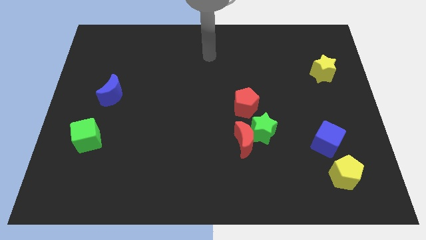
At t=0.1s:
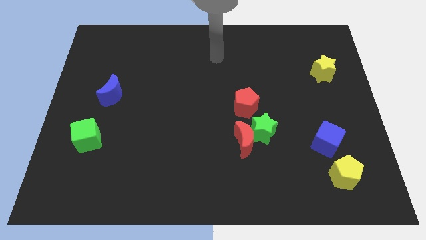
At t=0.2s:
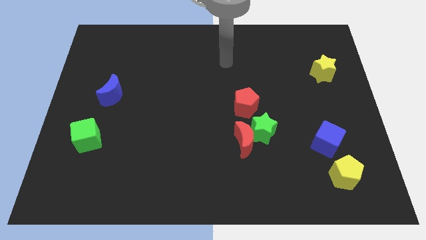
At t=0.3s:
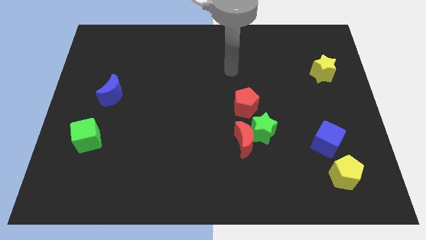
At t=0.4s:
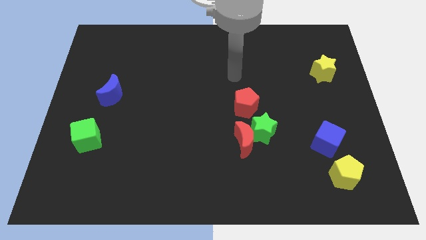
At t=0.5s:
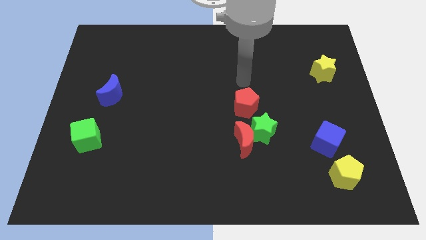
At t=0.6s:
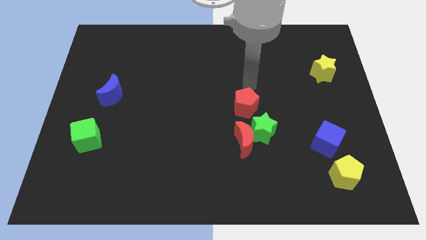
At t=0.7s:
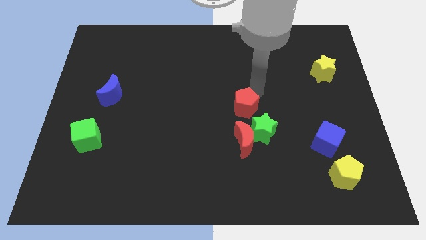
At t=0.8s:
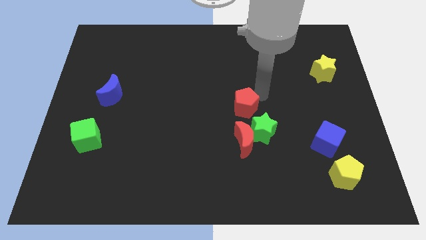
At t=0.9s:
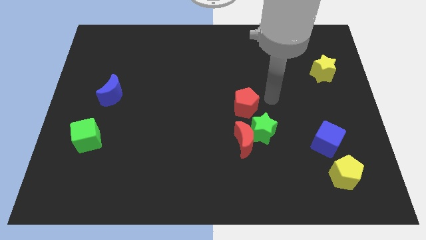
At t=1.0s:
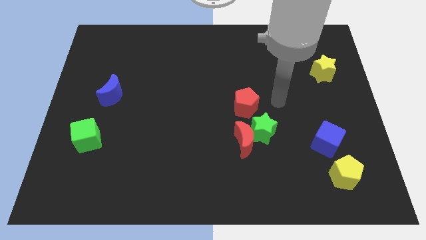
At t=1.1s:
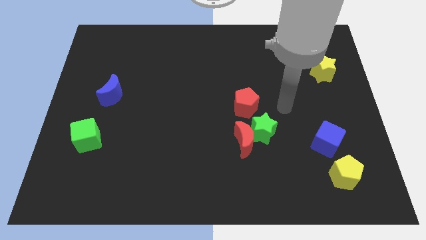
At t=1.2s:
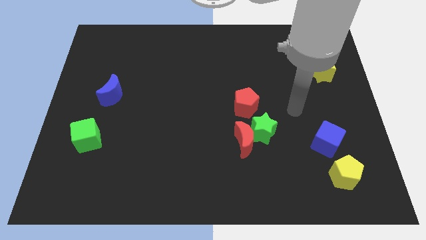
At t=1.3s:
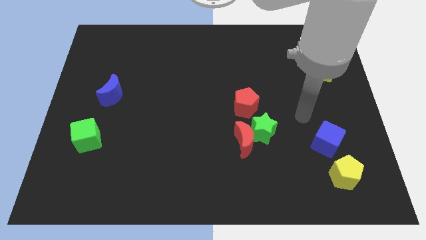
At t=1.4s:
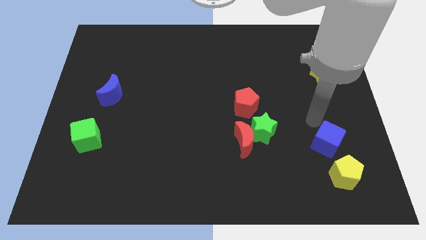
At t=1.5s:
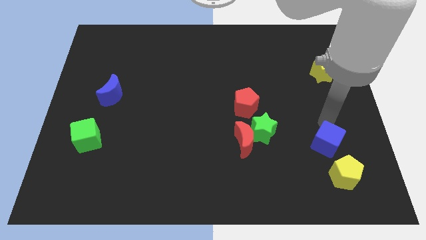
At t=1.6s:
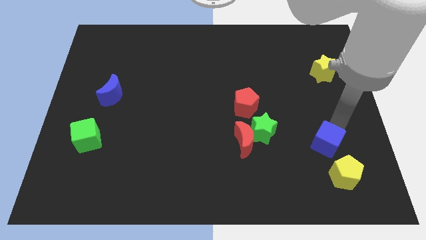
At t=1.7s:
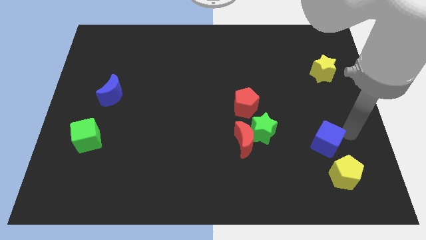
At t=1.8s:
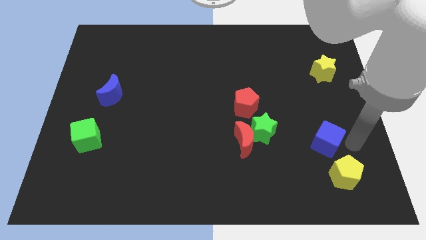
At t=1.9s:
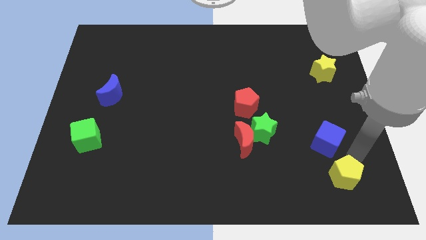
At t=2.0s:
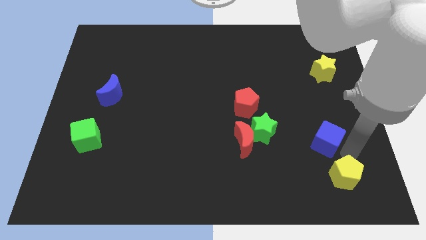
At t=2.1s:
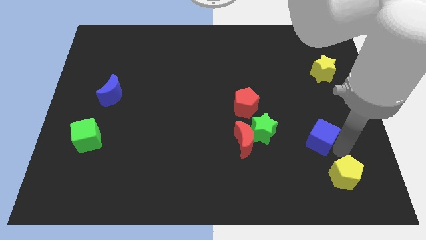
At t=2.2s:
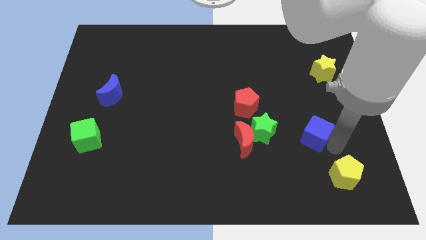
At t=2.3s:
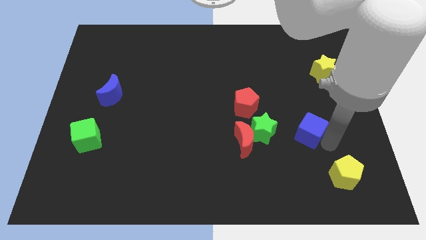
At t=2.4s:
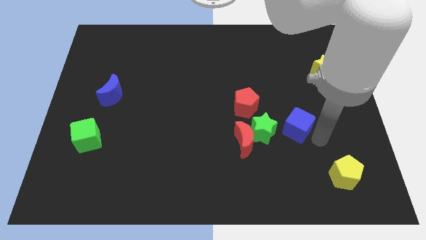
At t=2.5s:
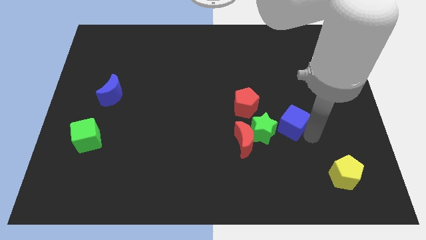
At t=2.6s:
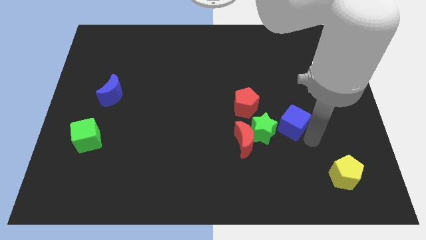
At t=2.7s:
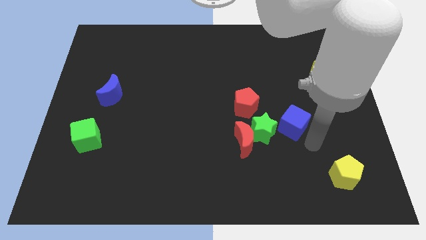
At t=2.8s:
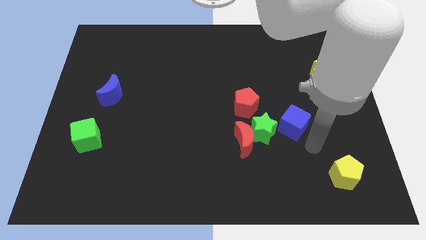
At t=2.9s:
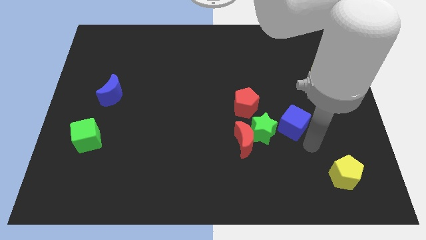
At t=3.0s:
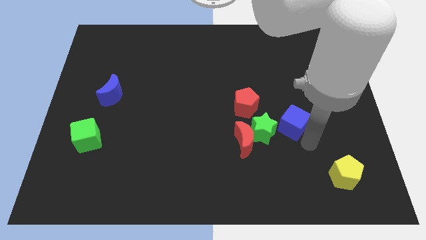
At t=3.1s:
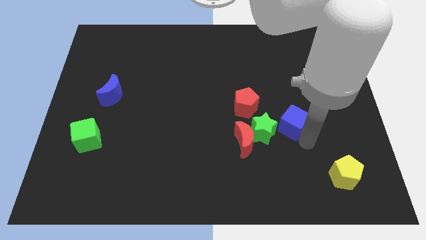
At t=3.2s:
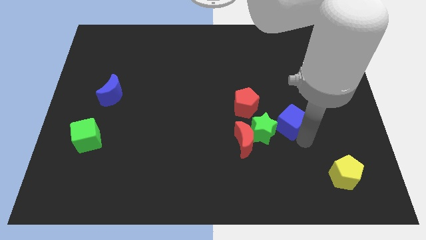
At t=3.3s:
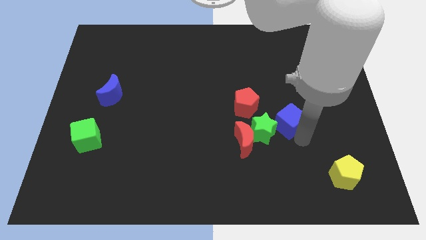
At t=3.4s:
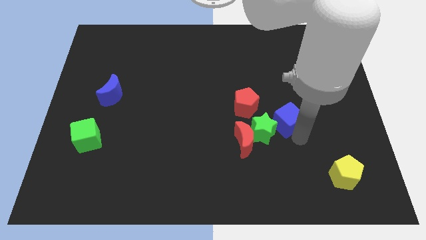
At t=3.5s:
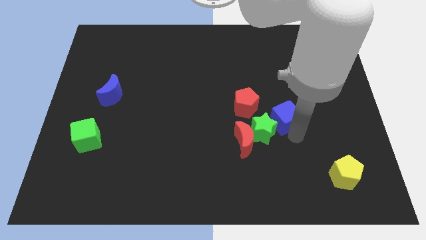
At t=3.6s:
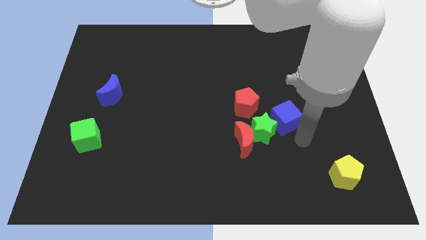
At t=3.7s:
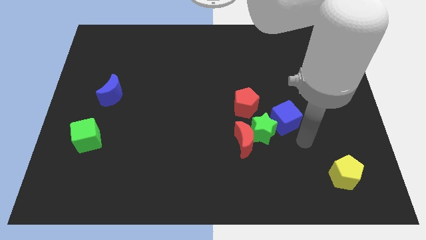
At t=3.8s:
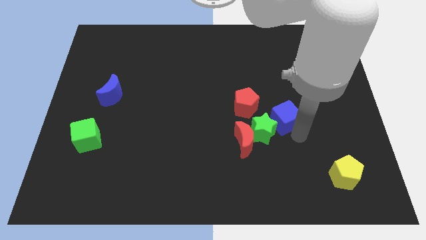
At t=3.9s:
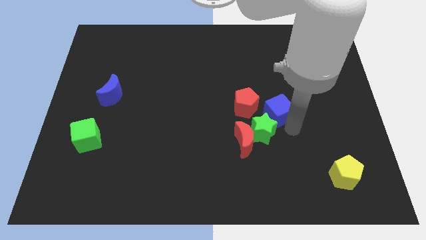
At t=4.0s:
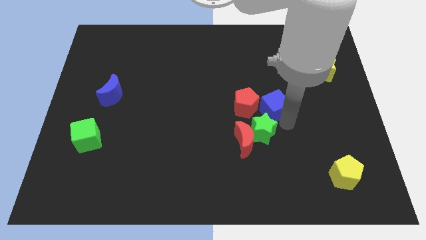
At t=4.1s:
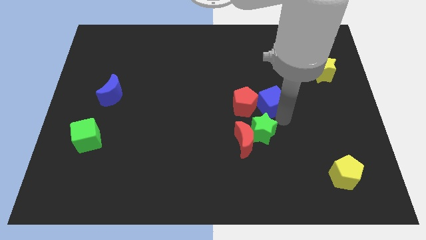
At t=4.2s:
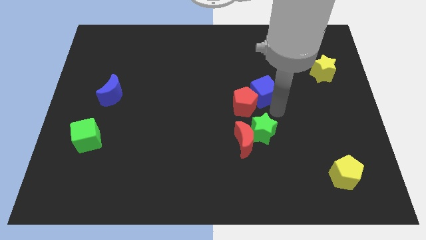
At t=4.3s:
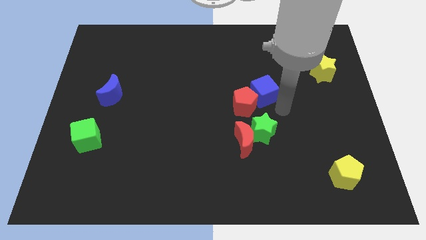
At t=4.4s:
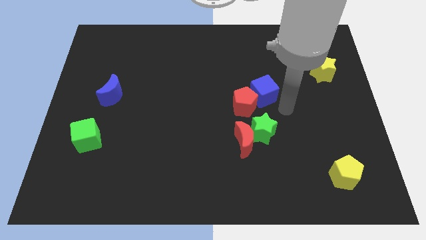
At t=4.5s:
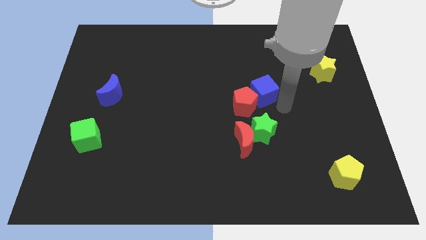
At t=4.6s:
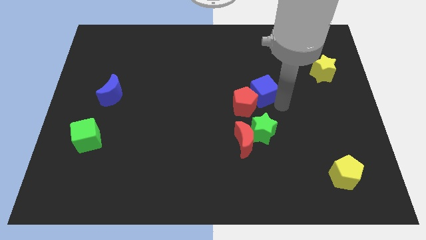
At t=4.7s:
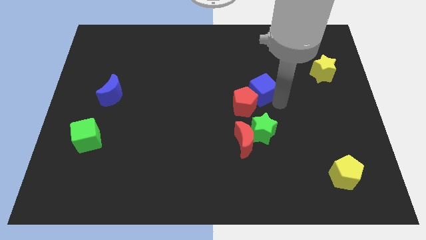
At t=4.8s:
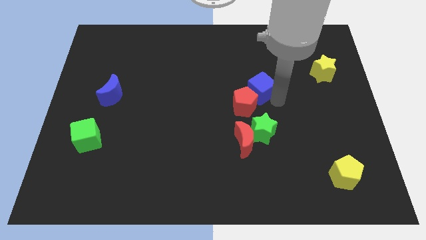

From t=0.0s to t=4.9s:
move the blue cube up and left

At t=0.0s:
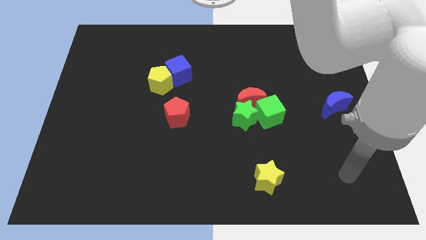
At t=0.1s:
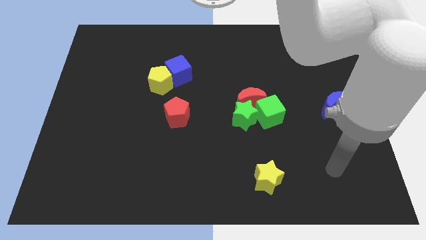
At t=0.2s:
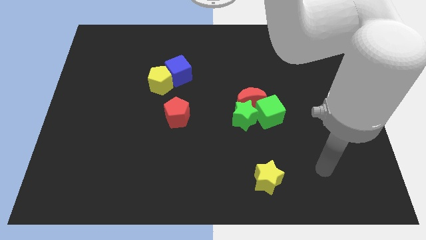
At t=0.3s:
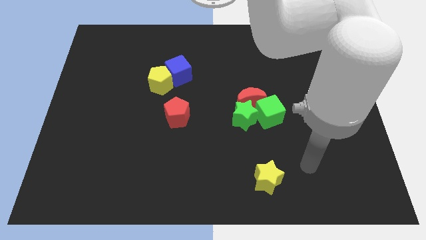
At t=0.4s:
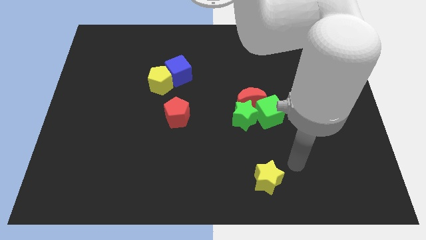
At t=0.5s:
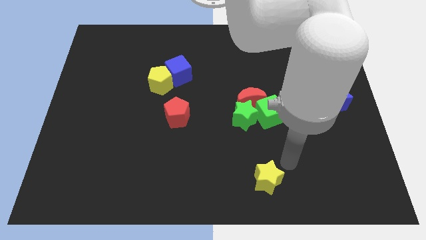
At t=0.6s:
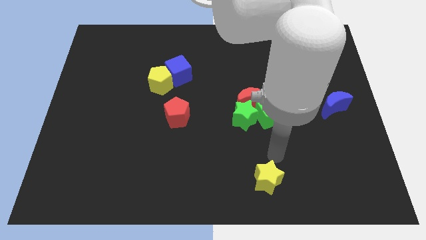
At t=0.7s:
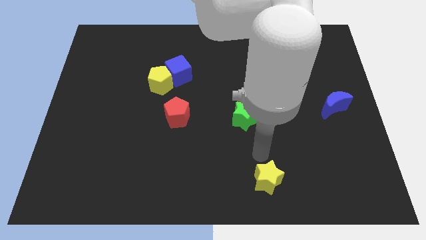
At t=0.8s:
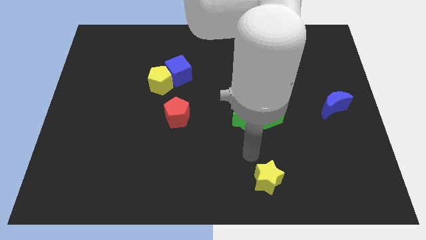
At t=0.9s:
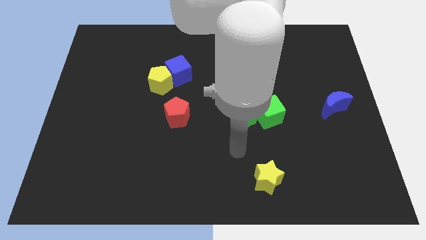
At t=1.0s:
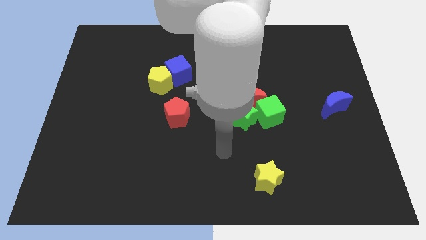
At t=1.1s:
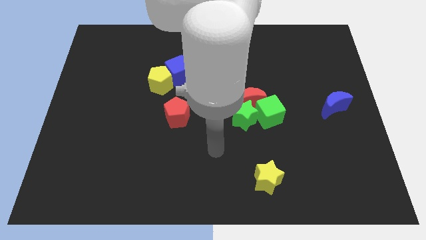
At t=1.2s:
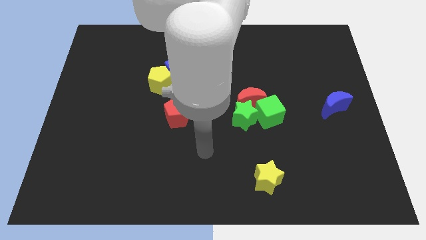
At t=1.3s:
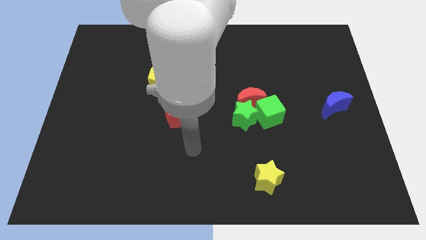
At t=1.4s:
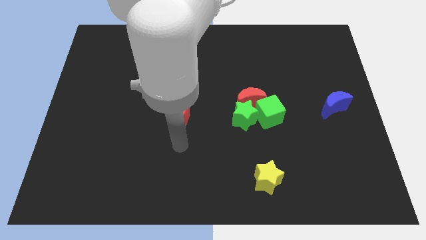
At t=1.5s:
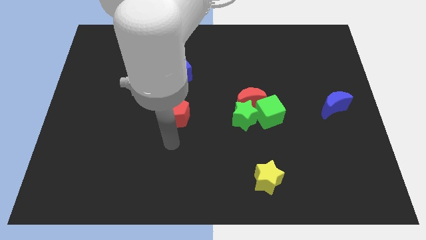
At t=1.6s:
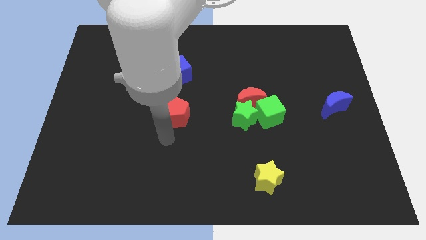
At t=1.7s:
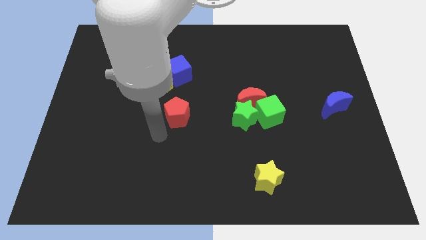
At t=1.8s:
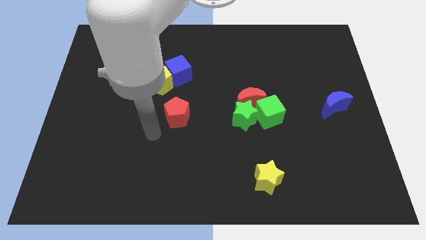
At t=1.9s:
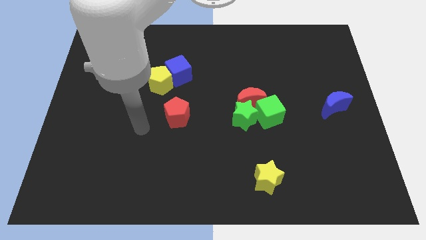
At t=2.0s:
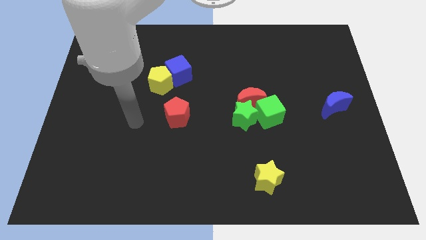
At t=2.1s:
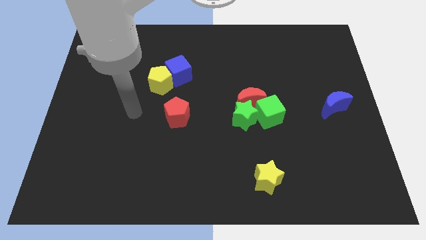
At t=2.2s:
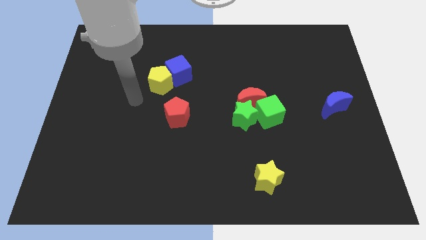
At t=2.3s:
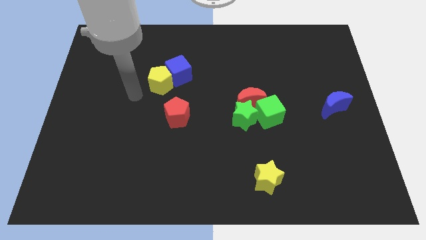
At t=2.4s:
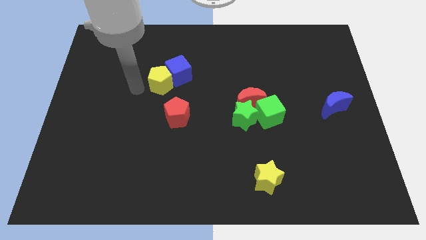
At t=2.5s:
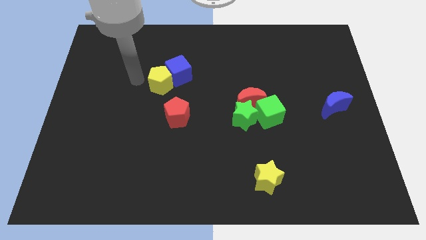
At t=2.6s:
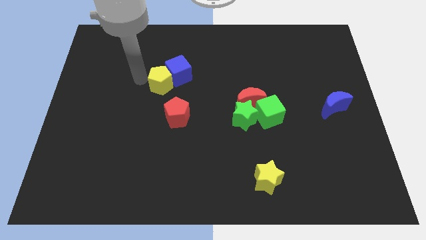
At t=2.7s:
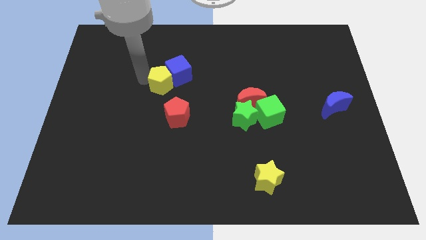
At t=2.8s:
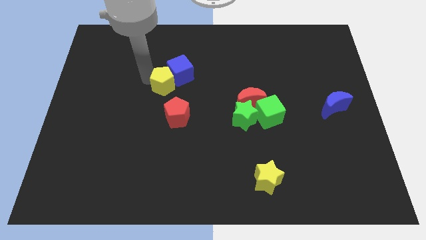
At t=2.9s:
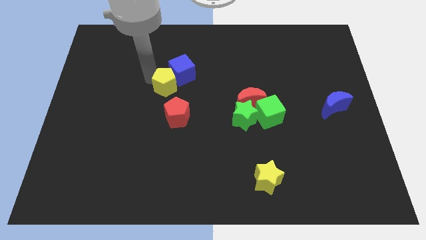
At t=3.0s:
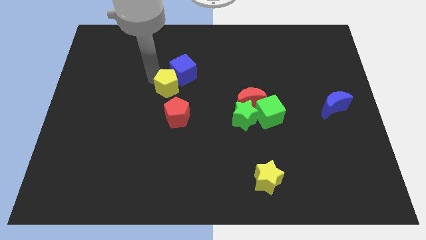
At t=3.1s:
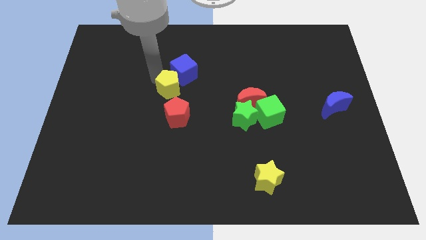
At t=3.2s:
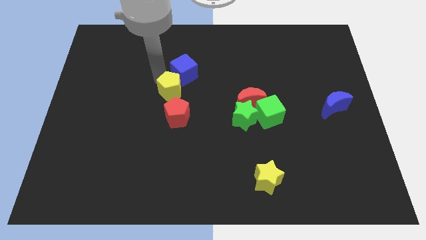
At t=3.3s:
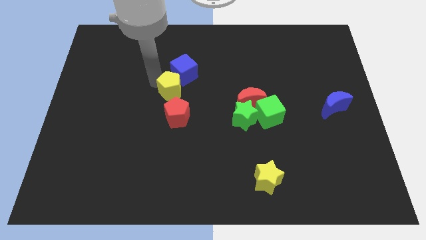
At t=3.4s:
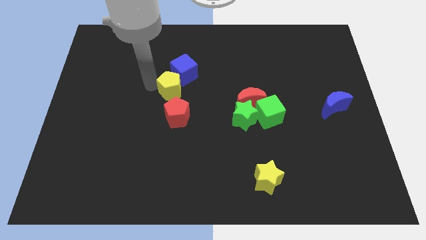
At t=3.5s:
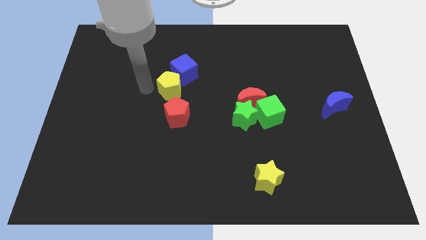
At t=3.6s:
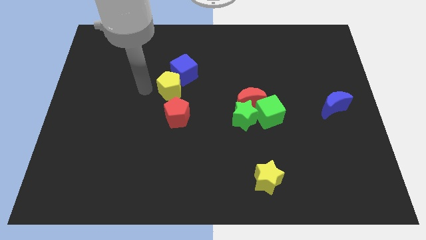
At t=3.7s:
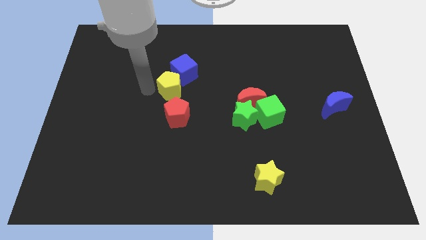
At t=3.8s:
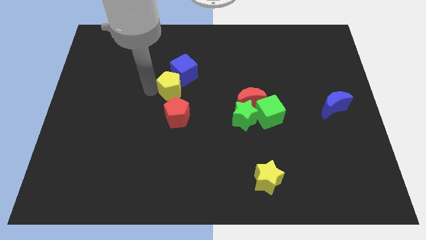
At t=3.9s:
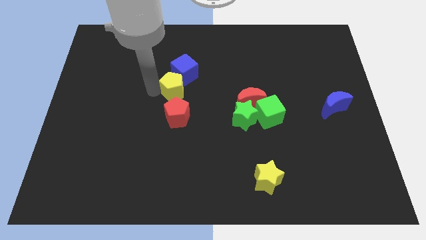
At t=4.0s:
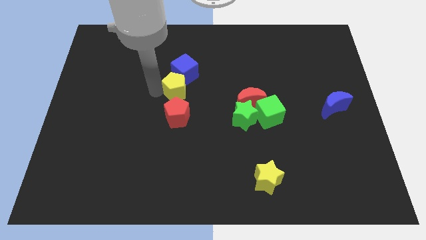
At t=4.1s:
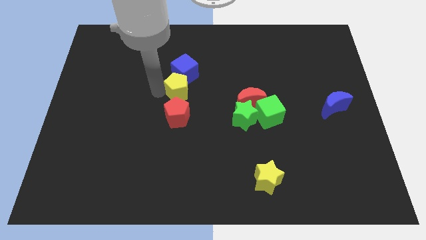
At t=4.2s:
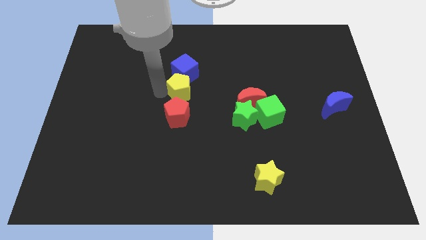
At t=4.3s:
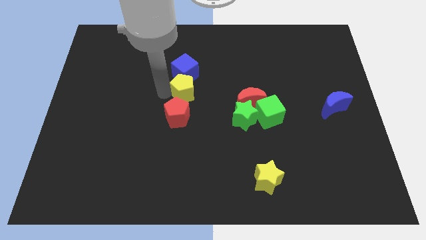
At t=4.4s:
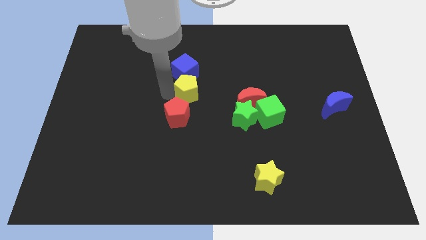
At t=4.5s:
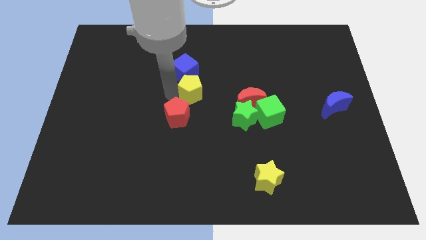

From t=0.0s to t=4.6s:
slide the yellow pentagon to the right slightly
